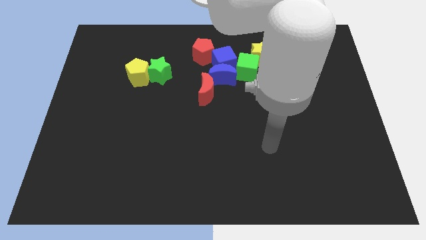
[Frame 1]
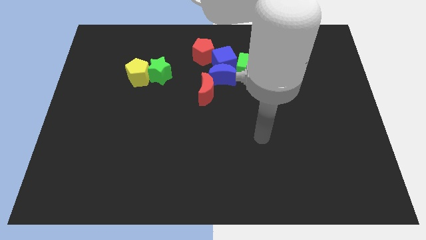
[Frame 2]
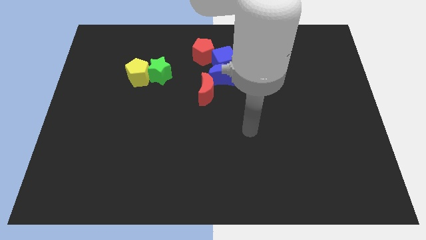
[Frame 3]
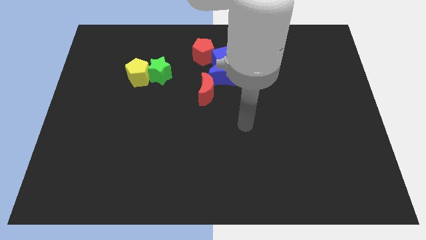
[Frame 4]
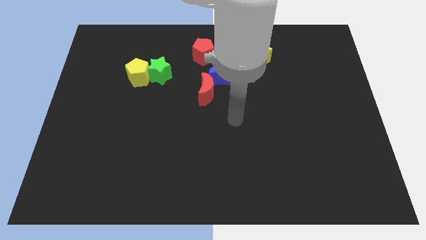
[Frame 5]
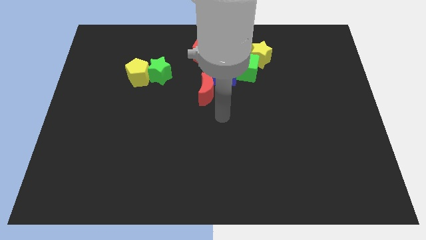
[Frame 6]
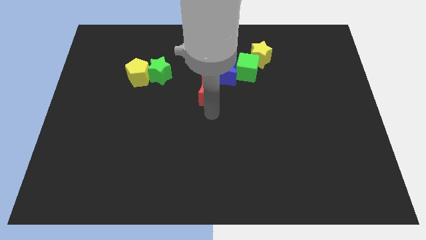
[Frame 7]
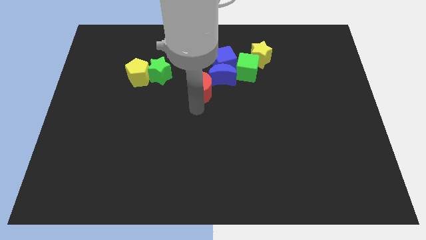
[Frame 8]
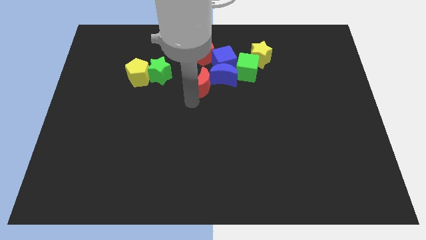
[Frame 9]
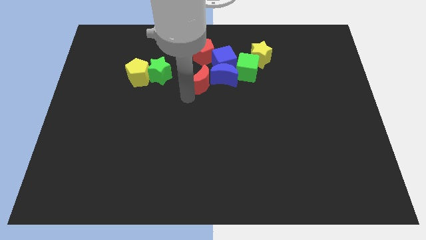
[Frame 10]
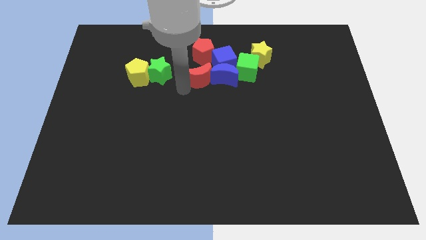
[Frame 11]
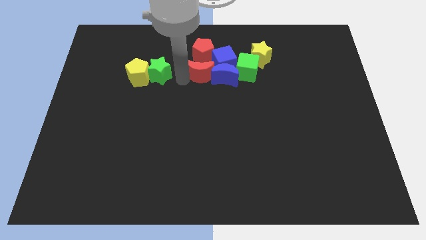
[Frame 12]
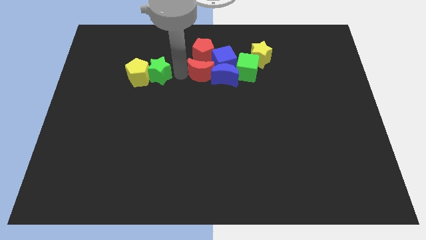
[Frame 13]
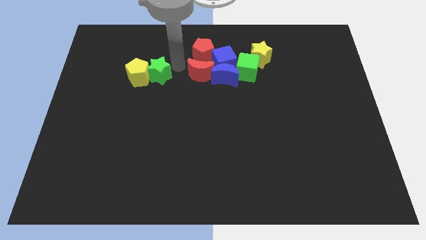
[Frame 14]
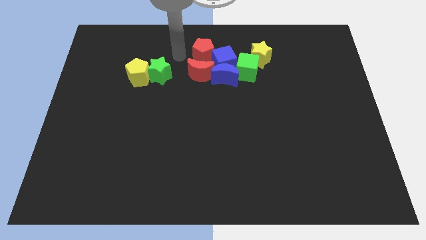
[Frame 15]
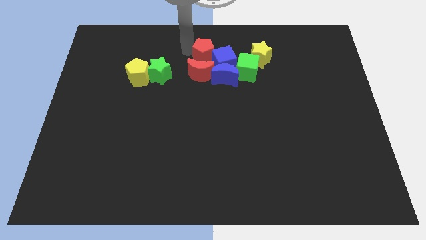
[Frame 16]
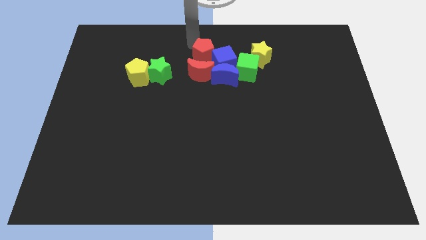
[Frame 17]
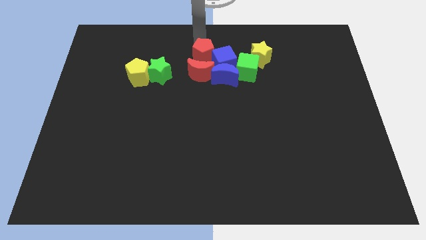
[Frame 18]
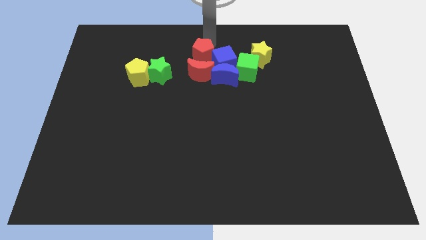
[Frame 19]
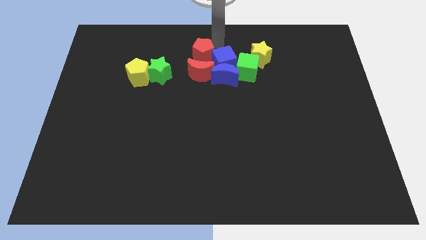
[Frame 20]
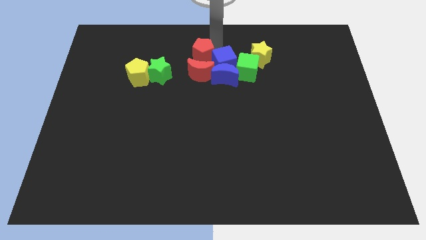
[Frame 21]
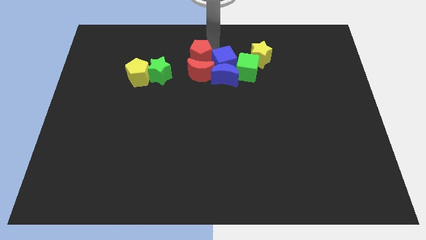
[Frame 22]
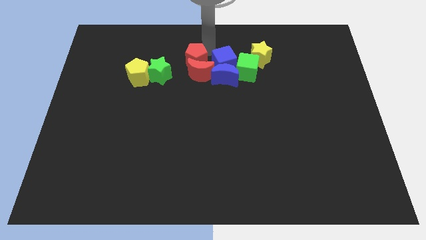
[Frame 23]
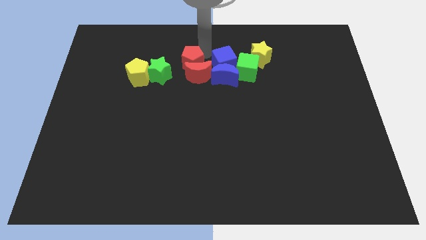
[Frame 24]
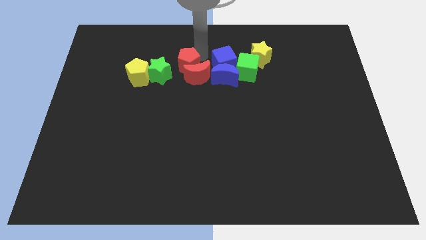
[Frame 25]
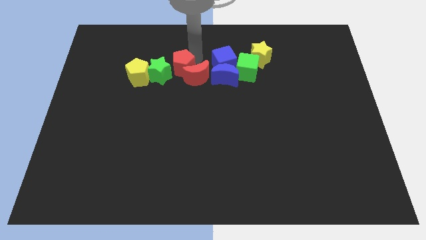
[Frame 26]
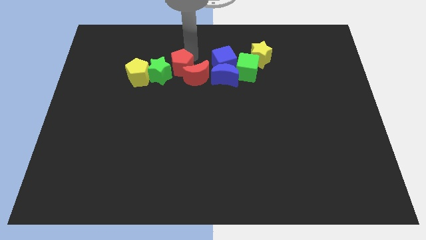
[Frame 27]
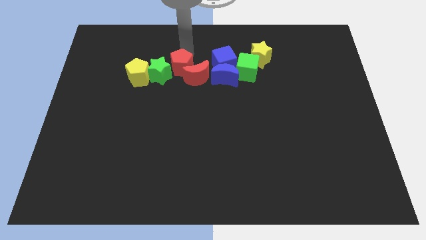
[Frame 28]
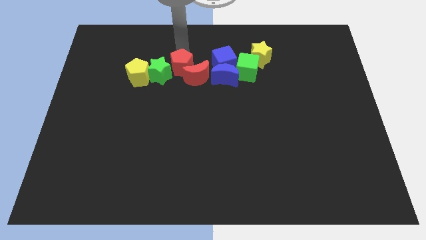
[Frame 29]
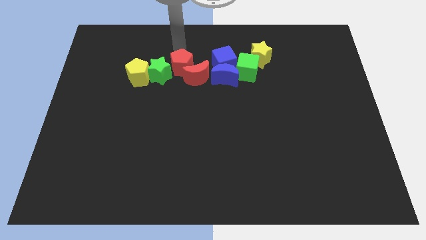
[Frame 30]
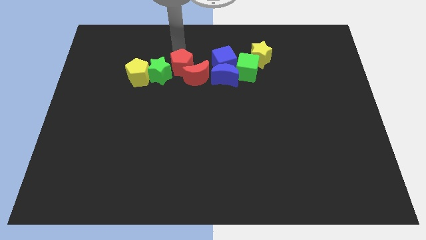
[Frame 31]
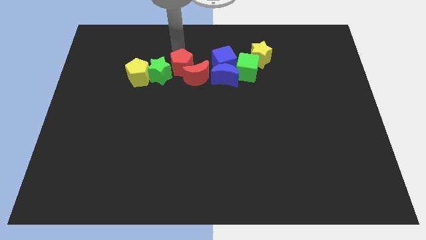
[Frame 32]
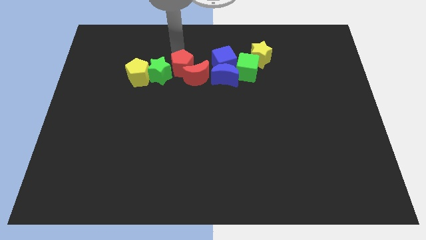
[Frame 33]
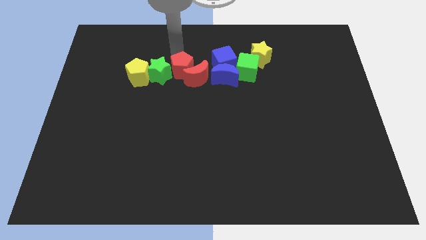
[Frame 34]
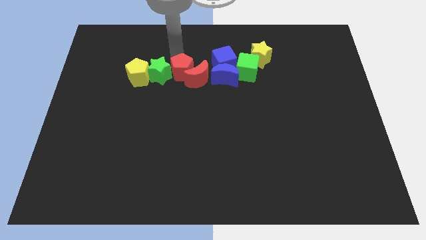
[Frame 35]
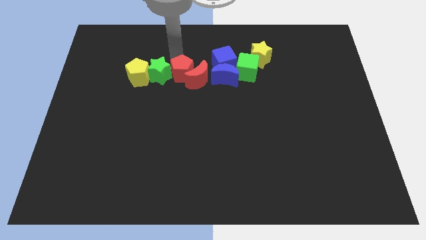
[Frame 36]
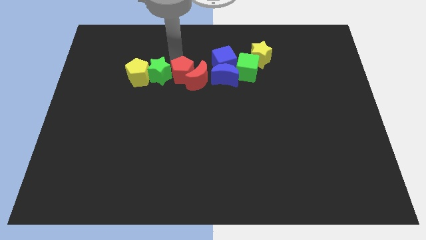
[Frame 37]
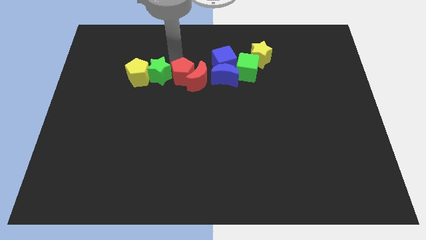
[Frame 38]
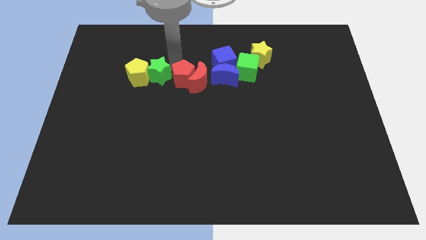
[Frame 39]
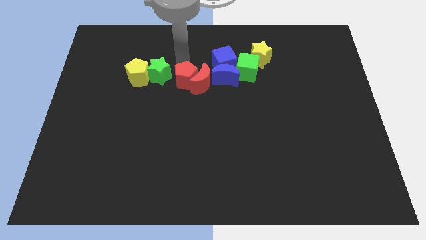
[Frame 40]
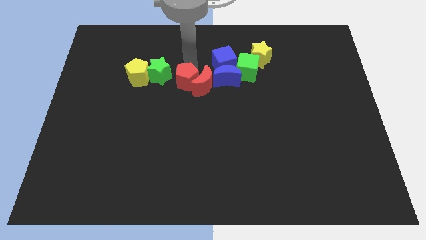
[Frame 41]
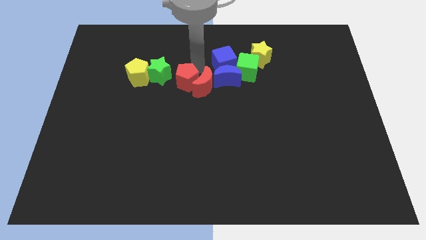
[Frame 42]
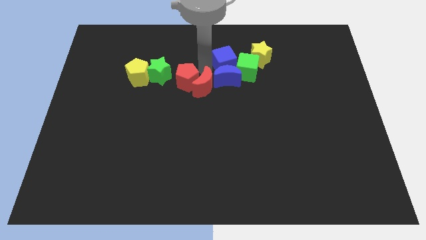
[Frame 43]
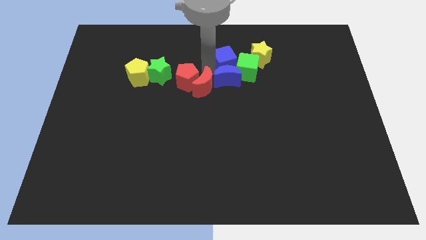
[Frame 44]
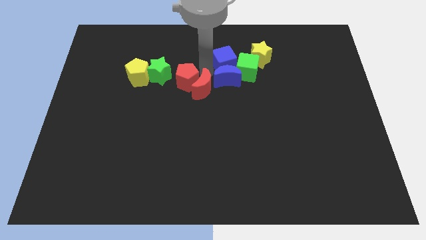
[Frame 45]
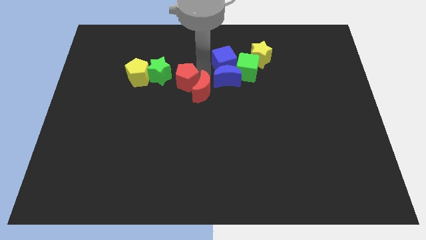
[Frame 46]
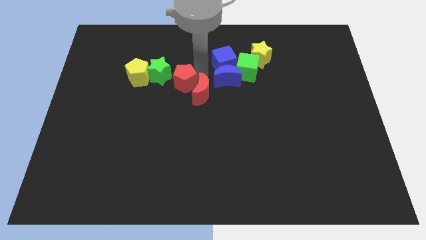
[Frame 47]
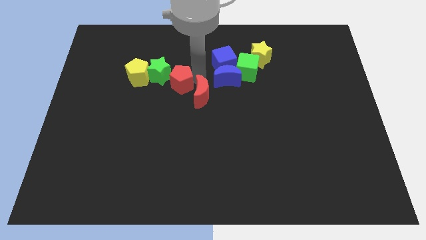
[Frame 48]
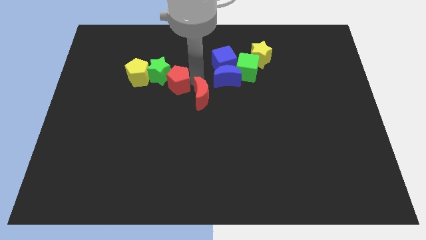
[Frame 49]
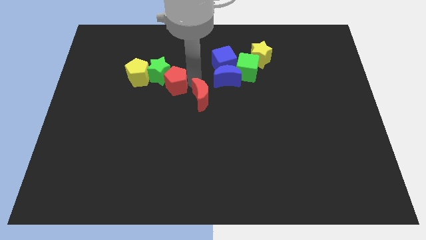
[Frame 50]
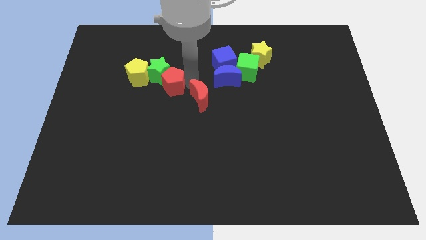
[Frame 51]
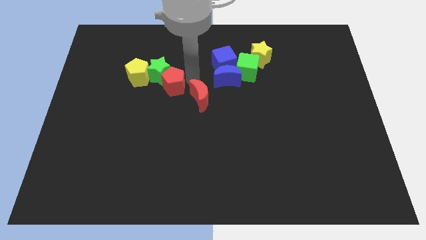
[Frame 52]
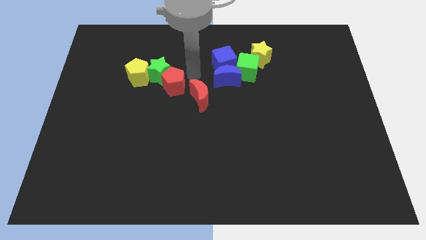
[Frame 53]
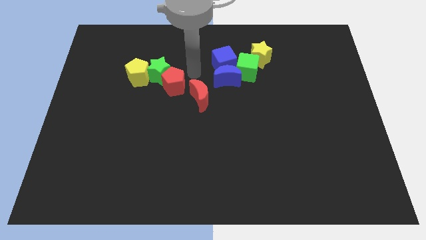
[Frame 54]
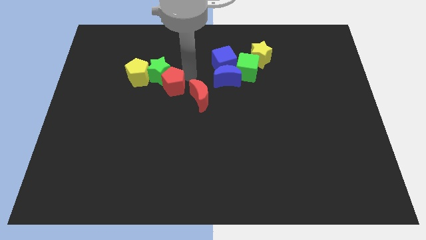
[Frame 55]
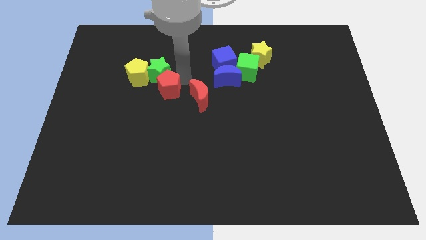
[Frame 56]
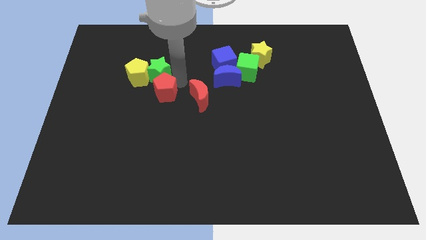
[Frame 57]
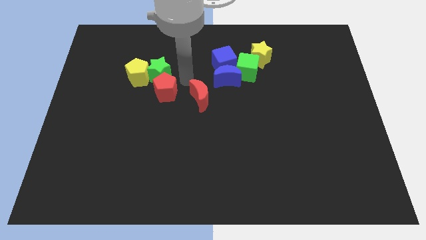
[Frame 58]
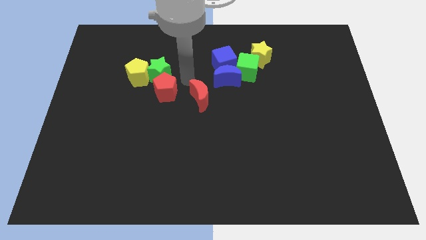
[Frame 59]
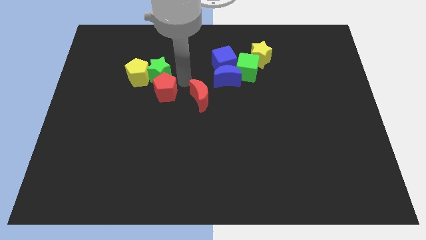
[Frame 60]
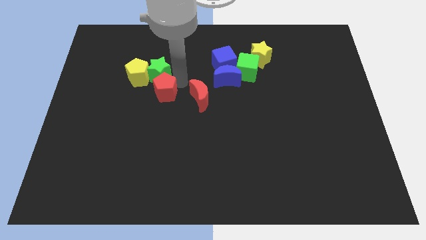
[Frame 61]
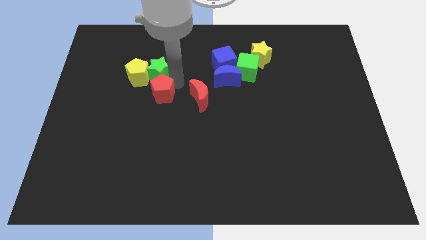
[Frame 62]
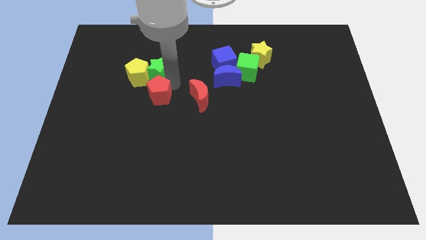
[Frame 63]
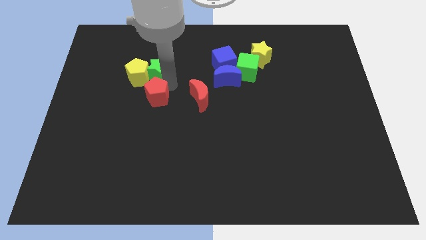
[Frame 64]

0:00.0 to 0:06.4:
push the red pentagon to the bottom side of the yellow pentagon
